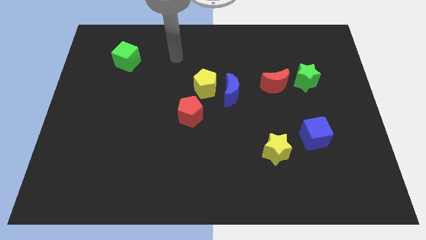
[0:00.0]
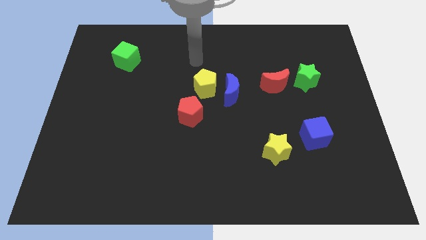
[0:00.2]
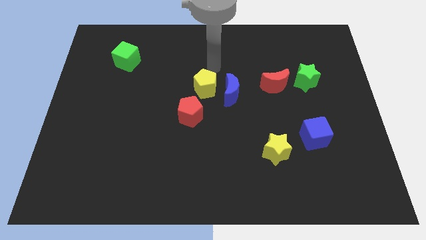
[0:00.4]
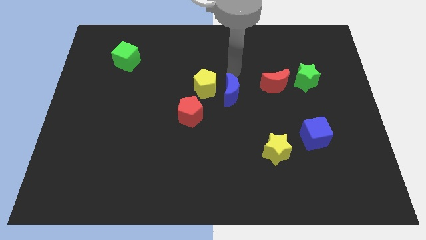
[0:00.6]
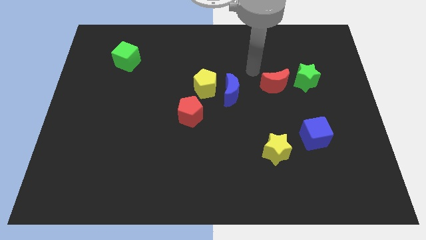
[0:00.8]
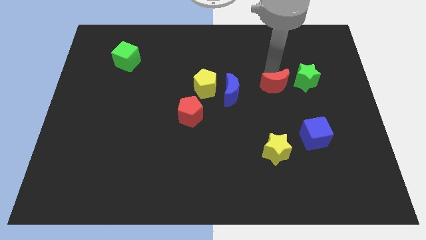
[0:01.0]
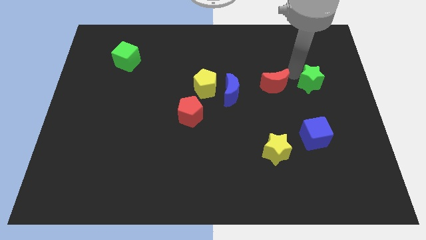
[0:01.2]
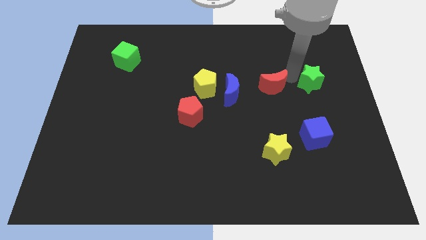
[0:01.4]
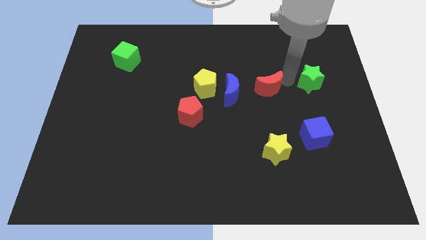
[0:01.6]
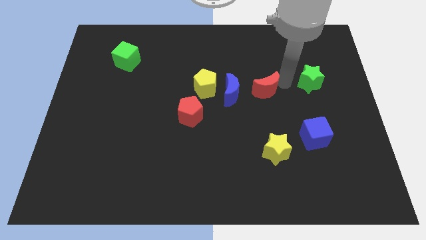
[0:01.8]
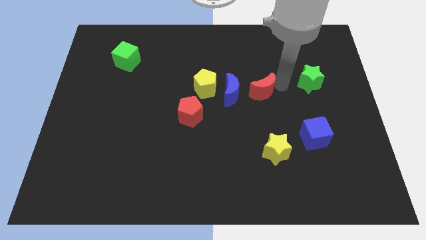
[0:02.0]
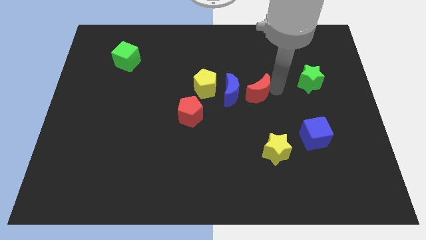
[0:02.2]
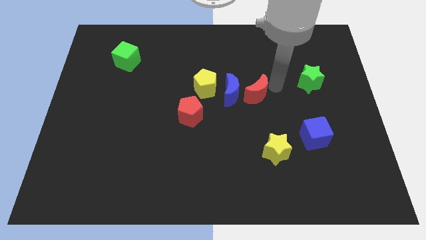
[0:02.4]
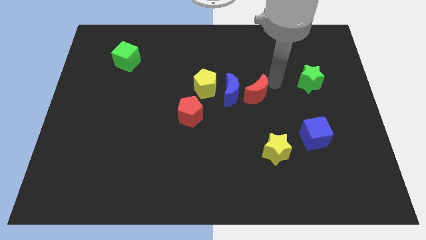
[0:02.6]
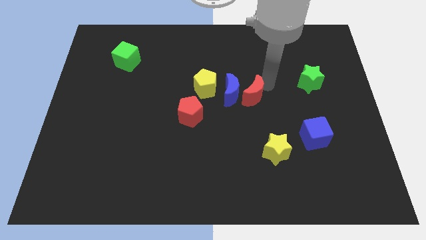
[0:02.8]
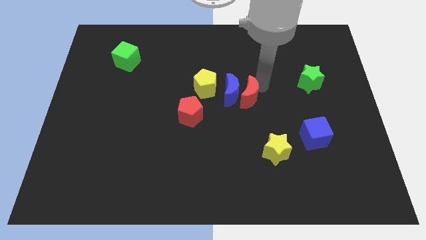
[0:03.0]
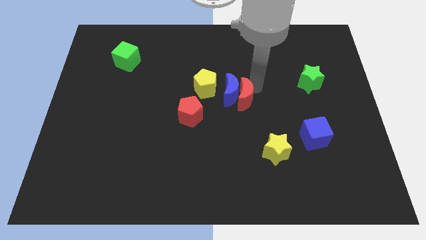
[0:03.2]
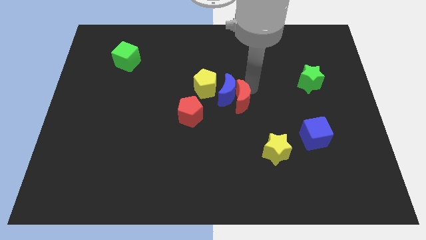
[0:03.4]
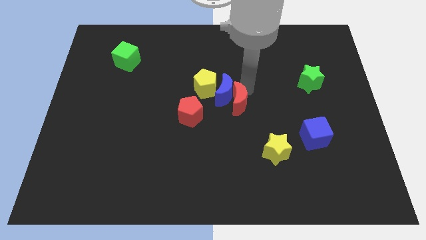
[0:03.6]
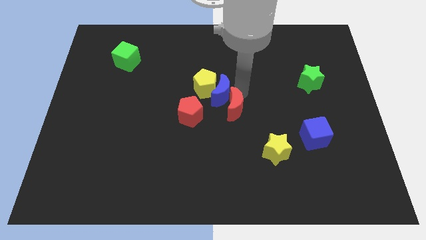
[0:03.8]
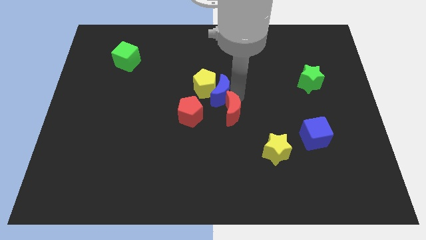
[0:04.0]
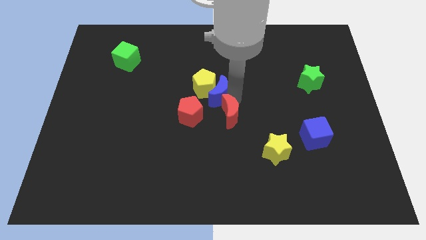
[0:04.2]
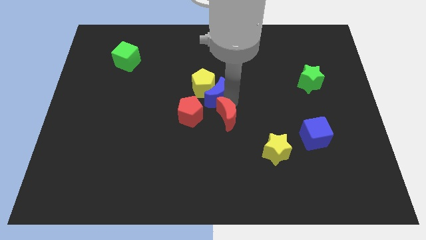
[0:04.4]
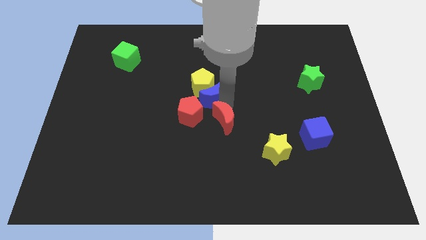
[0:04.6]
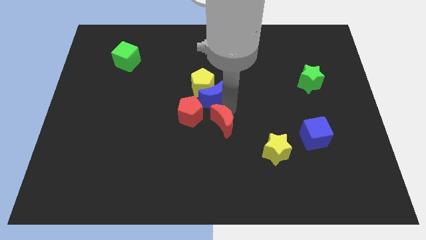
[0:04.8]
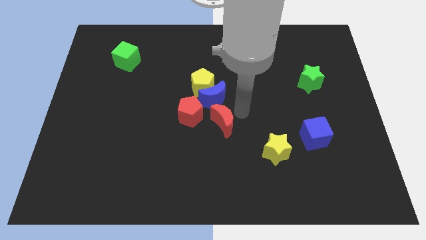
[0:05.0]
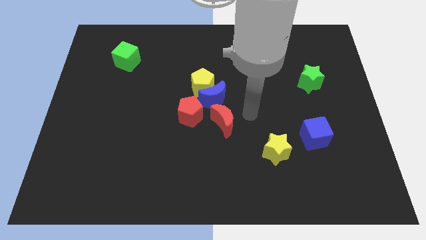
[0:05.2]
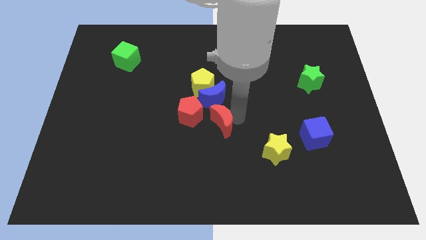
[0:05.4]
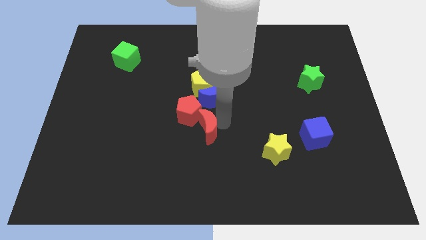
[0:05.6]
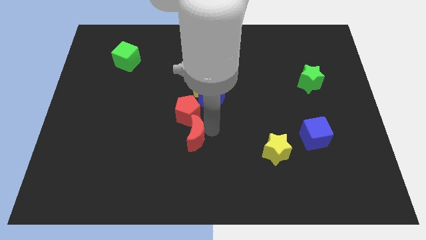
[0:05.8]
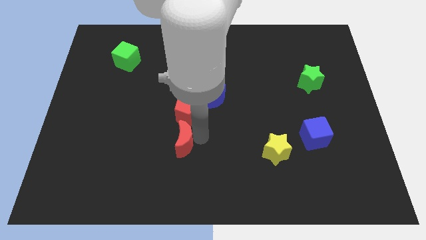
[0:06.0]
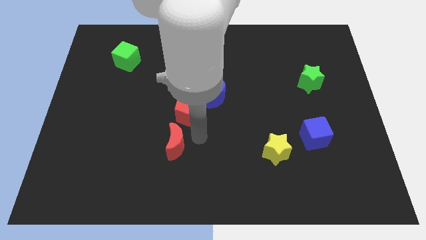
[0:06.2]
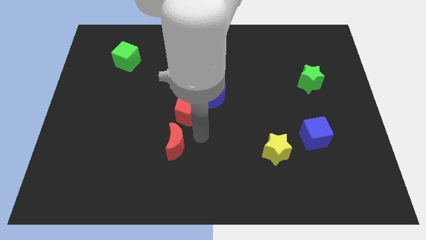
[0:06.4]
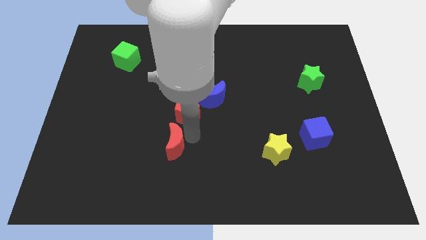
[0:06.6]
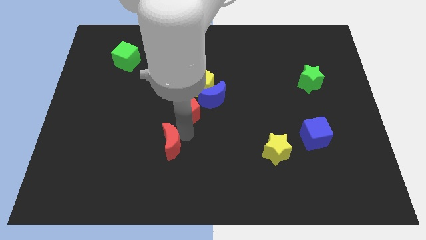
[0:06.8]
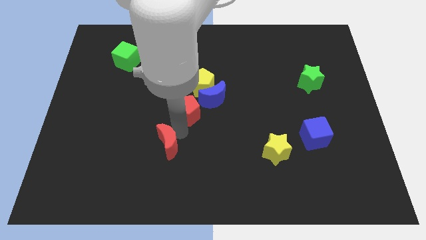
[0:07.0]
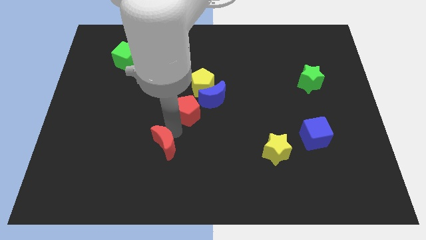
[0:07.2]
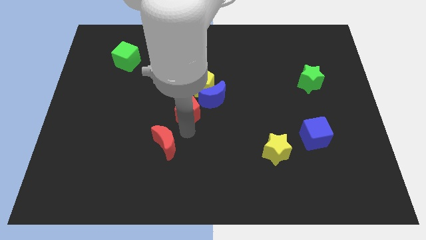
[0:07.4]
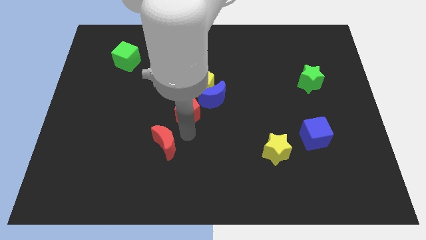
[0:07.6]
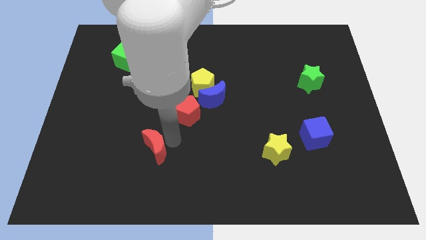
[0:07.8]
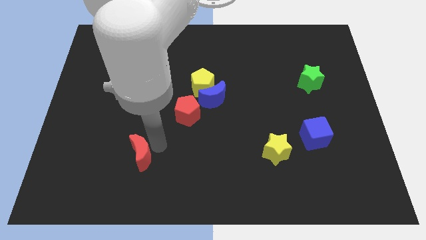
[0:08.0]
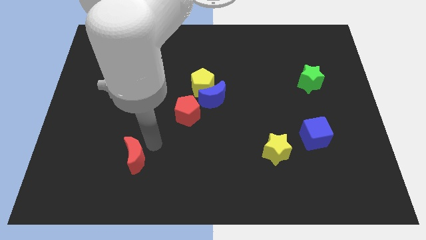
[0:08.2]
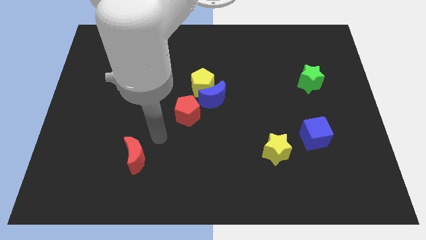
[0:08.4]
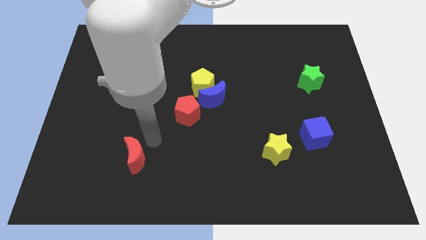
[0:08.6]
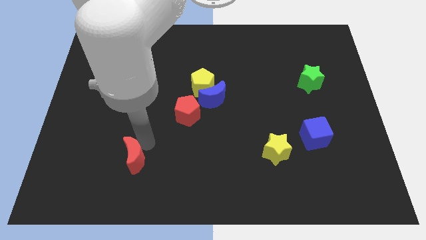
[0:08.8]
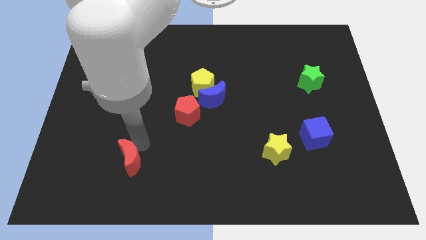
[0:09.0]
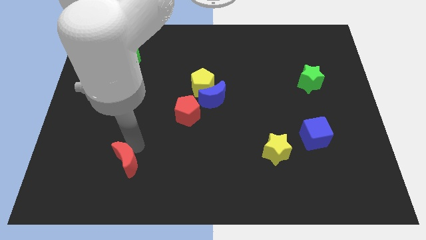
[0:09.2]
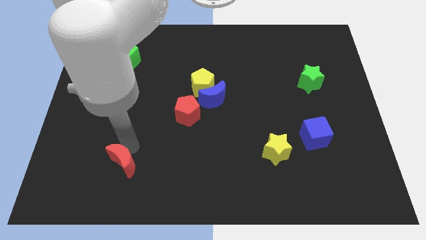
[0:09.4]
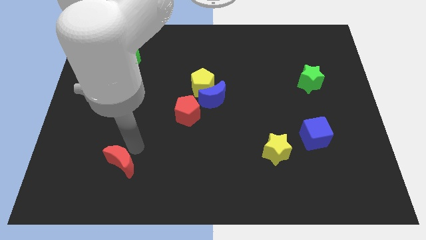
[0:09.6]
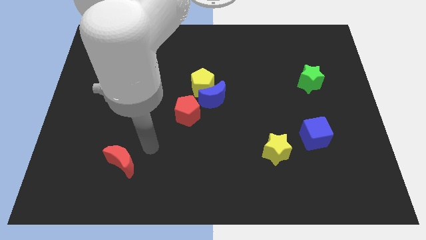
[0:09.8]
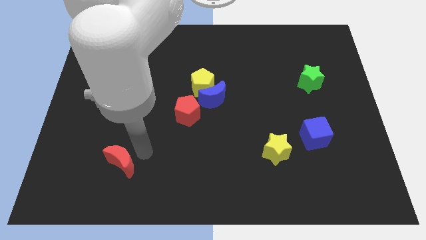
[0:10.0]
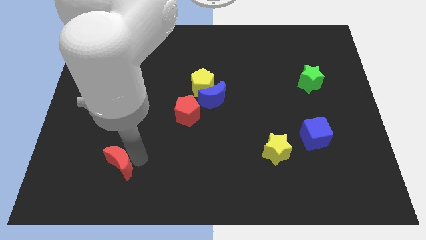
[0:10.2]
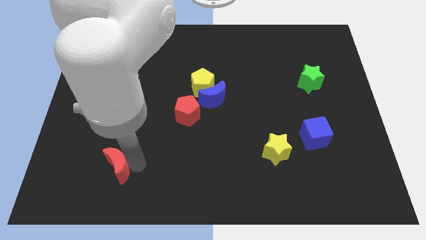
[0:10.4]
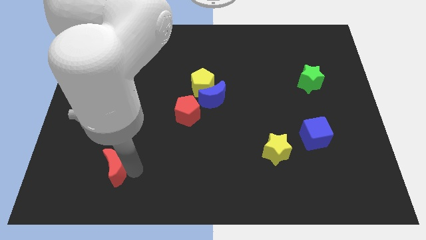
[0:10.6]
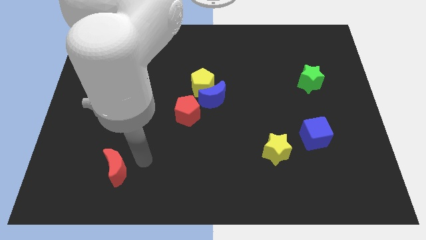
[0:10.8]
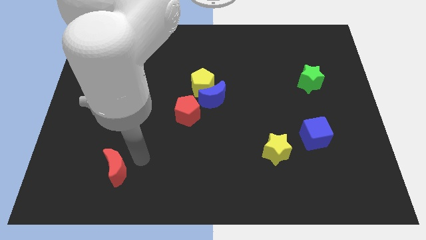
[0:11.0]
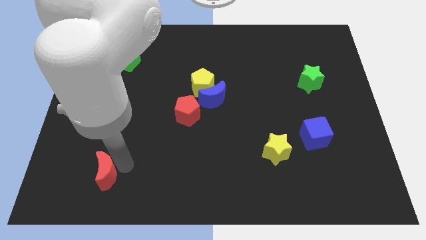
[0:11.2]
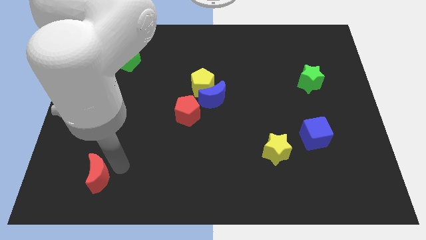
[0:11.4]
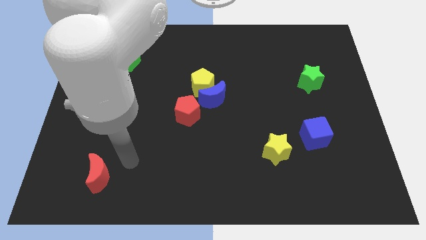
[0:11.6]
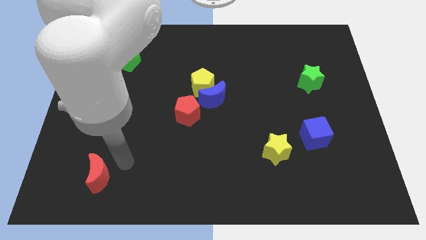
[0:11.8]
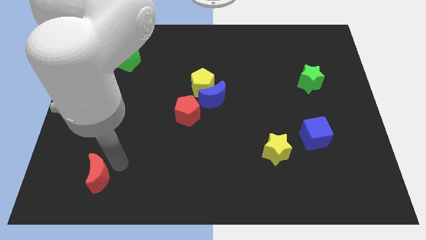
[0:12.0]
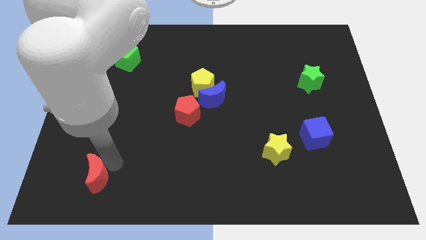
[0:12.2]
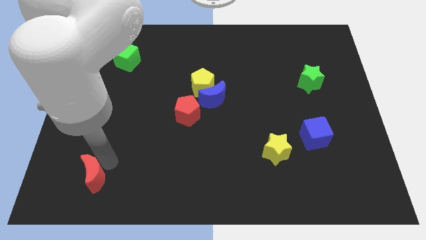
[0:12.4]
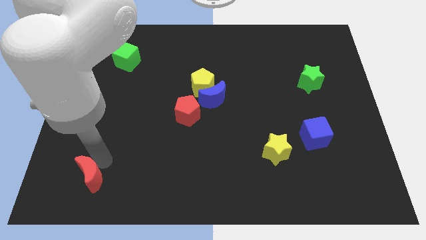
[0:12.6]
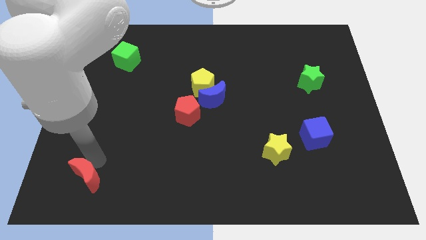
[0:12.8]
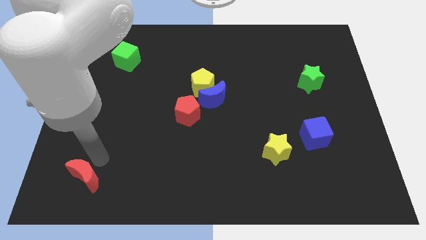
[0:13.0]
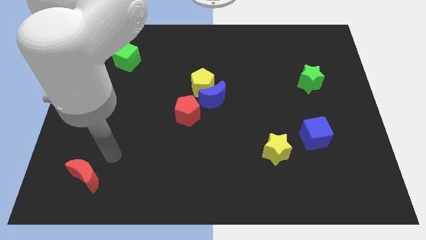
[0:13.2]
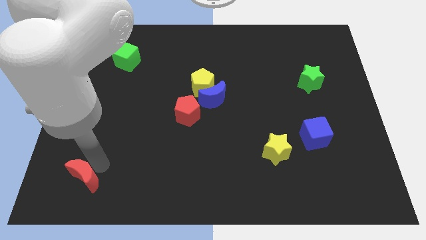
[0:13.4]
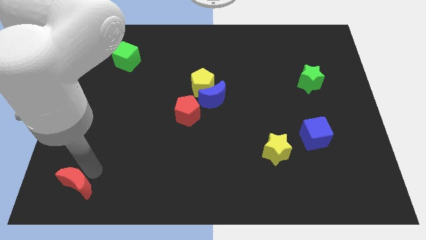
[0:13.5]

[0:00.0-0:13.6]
slide the red moon to the lower left corner
